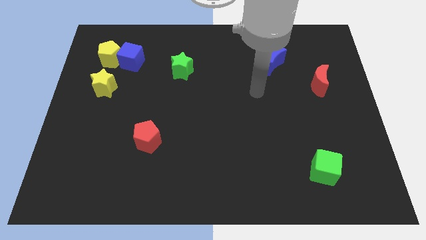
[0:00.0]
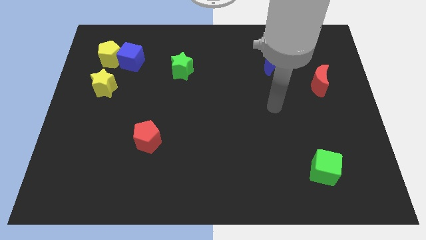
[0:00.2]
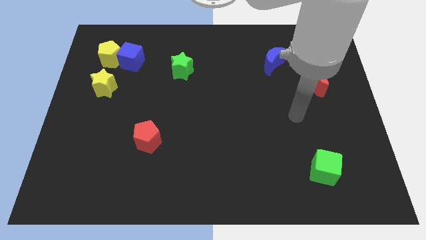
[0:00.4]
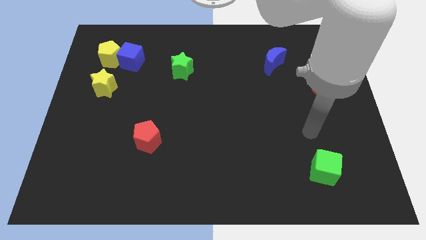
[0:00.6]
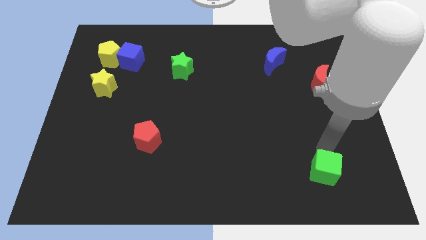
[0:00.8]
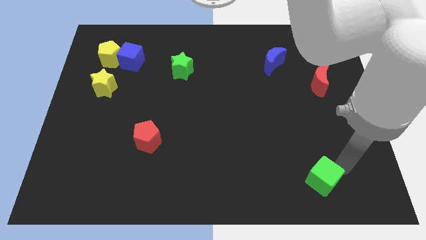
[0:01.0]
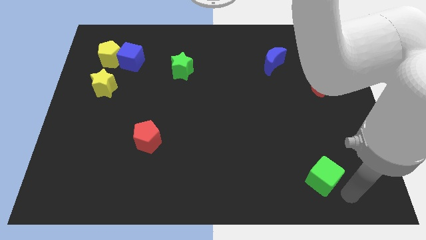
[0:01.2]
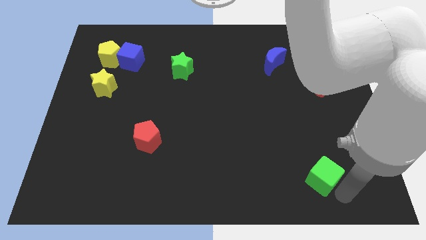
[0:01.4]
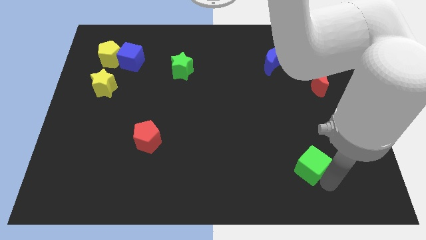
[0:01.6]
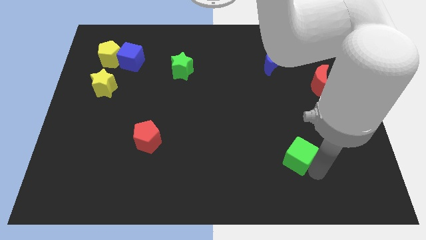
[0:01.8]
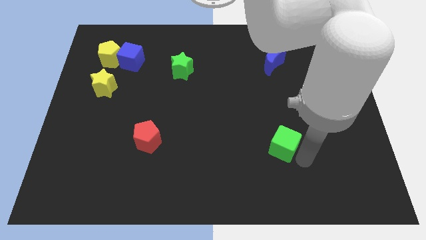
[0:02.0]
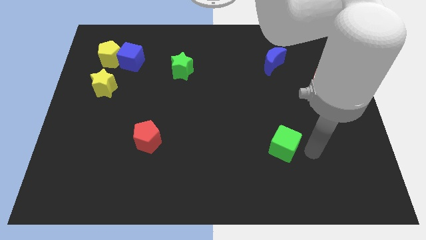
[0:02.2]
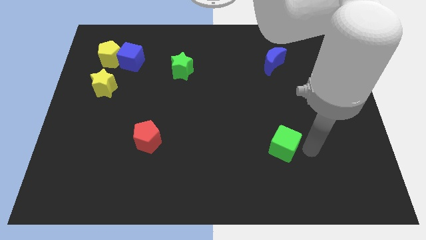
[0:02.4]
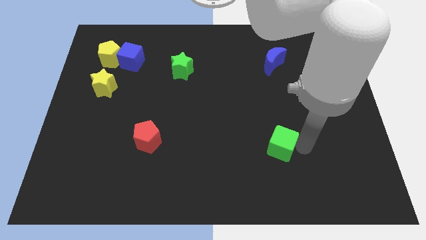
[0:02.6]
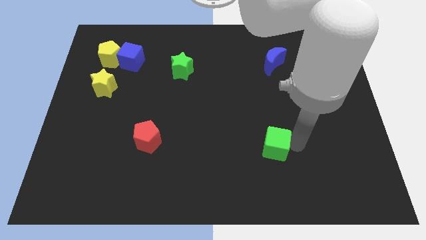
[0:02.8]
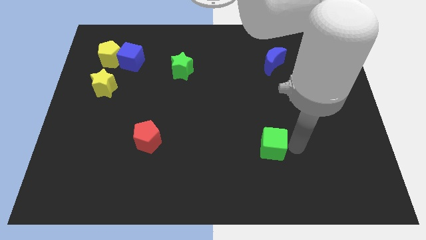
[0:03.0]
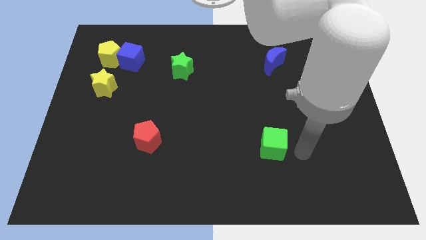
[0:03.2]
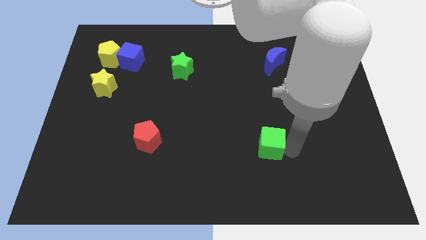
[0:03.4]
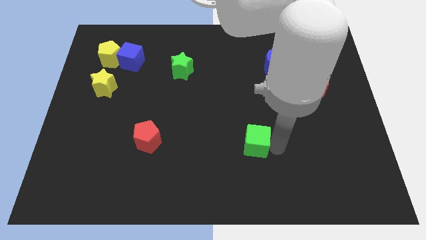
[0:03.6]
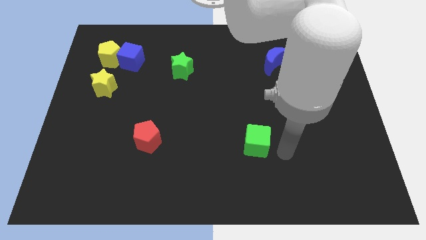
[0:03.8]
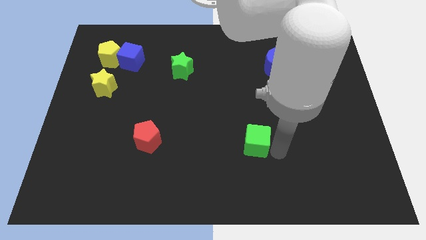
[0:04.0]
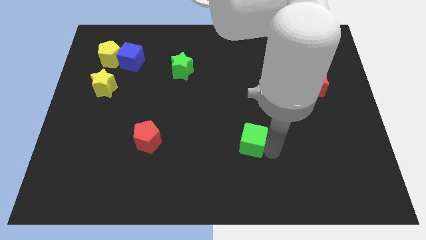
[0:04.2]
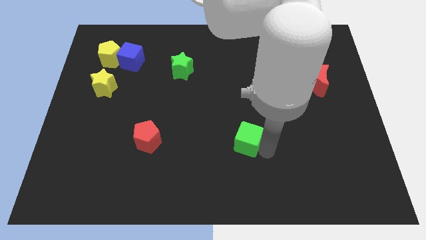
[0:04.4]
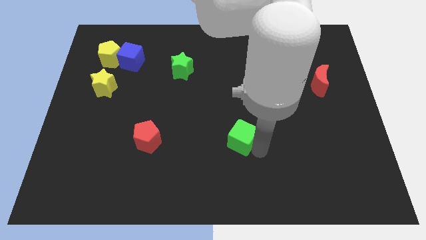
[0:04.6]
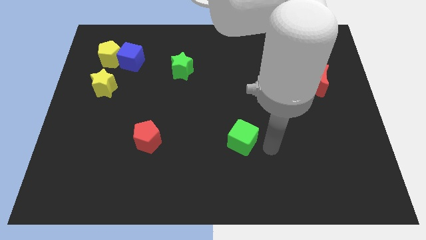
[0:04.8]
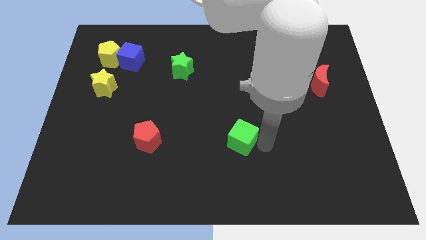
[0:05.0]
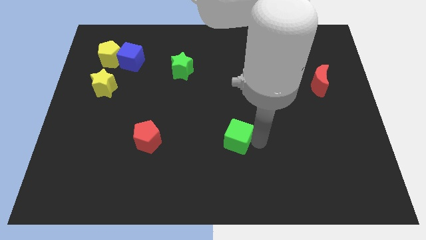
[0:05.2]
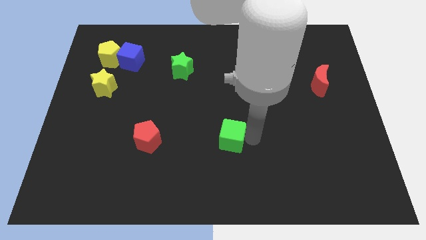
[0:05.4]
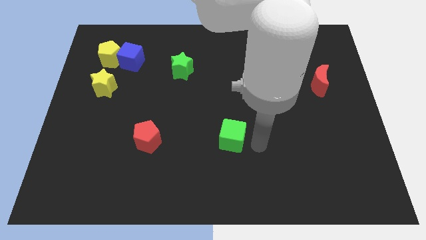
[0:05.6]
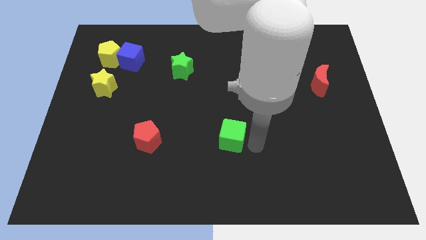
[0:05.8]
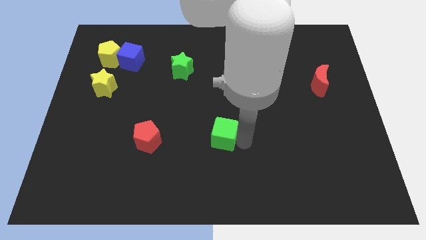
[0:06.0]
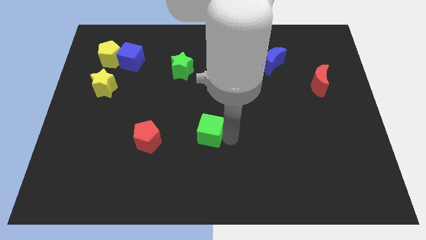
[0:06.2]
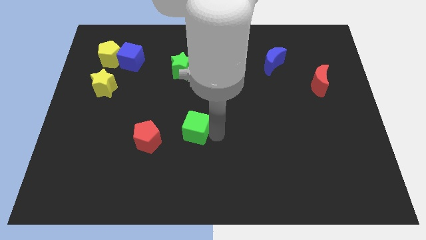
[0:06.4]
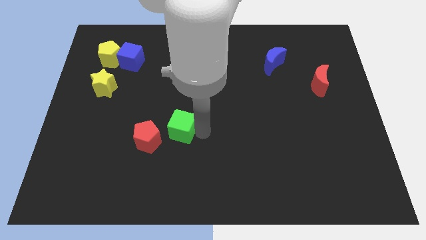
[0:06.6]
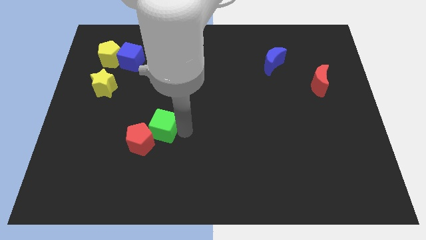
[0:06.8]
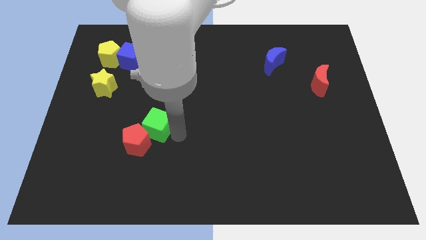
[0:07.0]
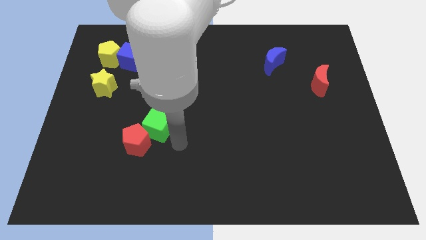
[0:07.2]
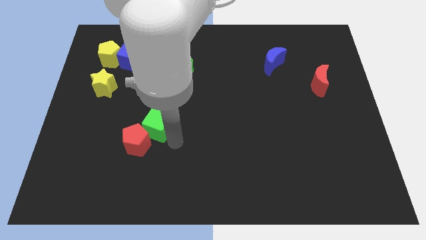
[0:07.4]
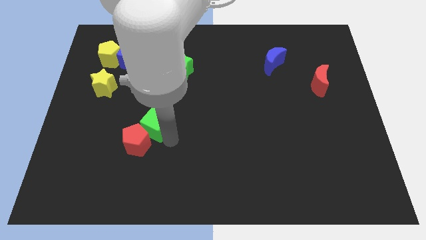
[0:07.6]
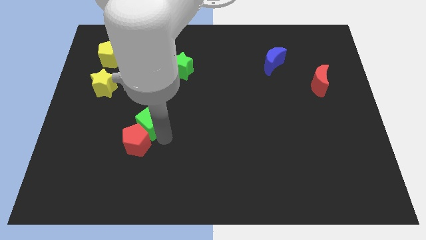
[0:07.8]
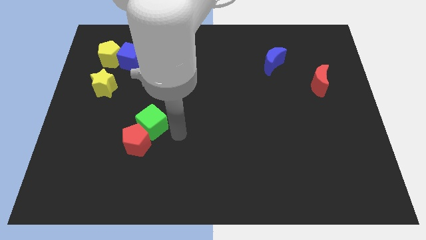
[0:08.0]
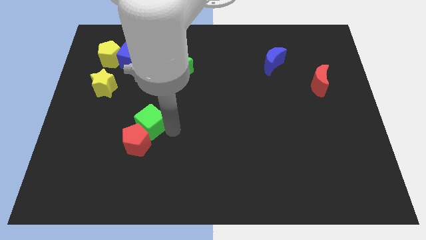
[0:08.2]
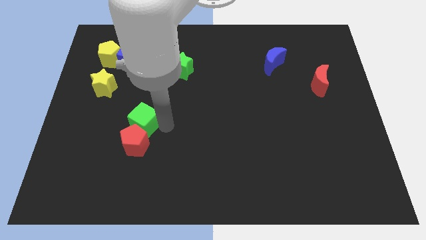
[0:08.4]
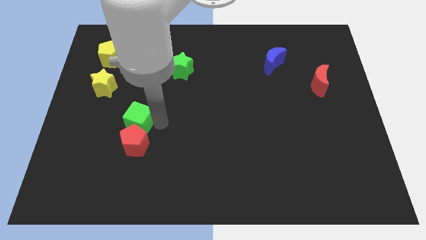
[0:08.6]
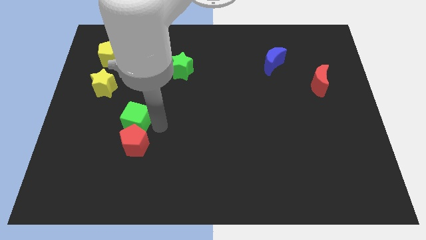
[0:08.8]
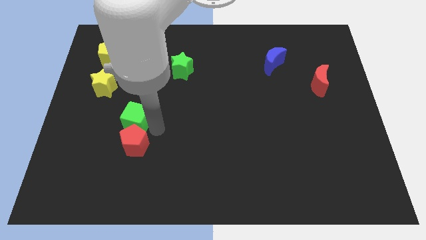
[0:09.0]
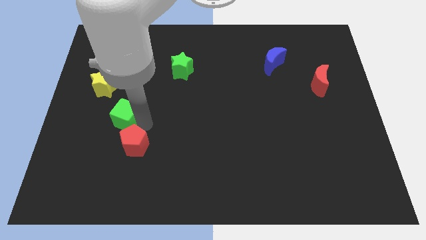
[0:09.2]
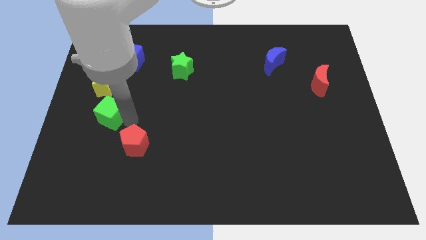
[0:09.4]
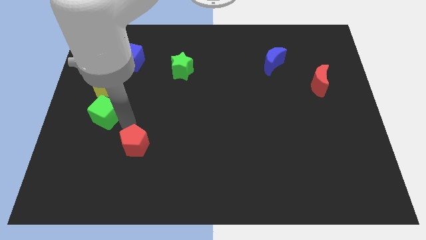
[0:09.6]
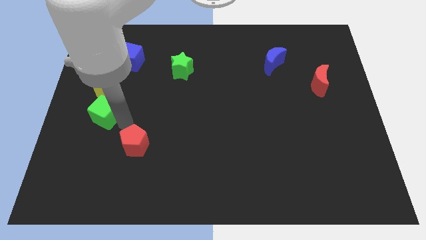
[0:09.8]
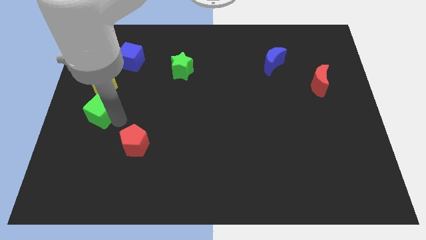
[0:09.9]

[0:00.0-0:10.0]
put the green cube to the left side of the board
